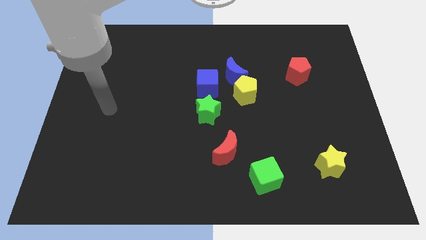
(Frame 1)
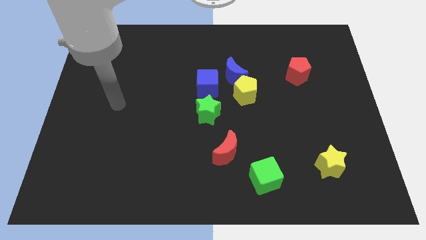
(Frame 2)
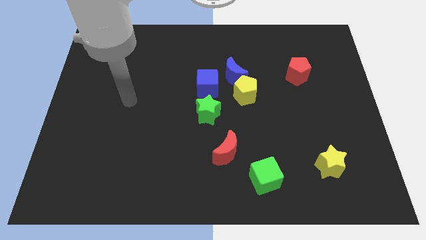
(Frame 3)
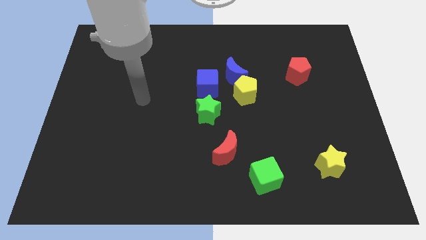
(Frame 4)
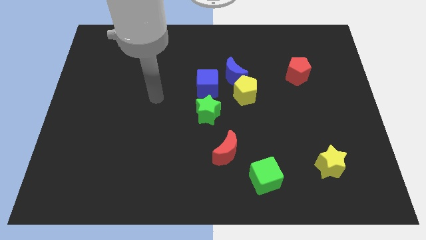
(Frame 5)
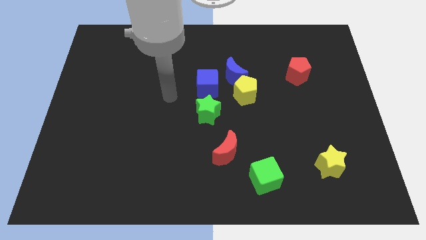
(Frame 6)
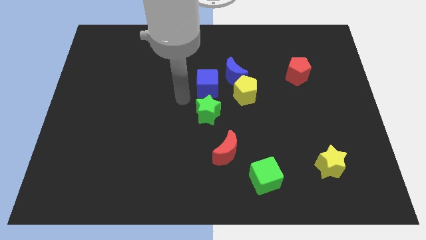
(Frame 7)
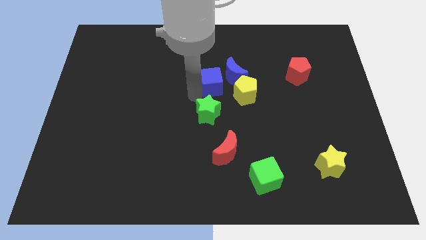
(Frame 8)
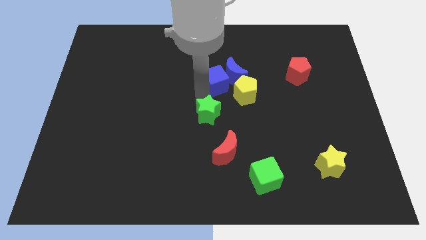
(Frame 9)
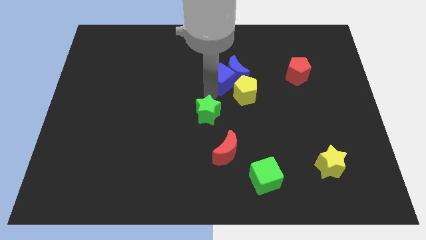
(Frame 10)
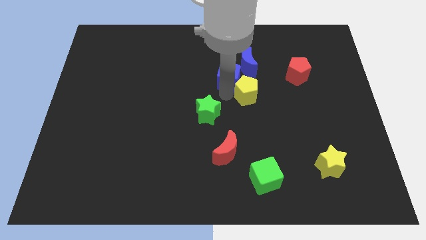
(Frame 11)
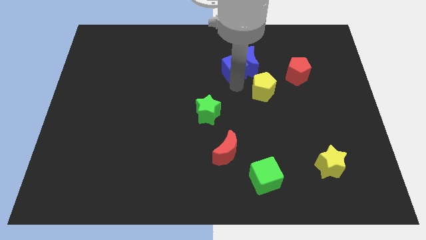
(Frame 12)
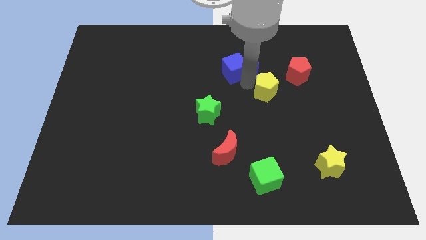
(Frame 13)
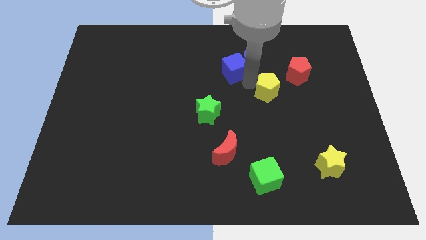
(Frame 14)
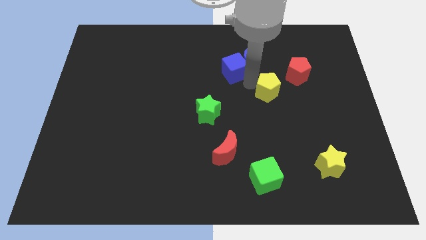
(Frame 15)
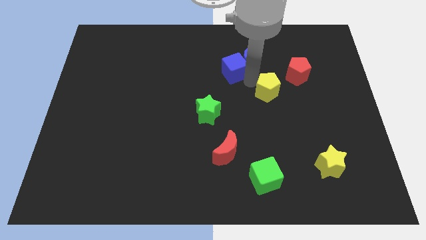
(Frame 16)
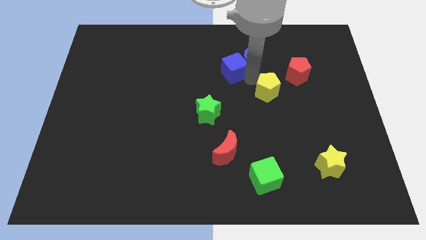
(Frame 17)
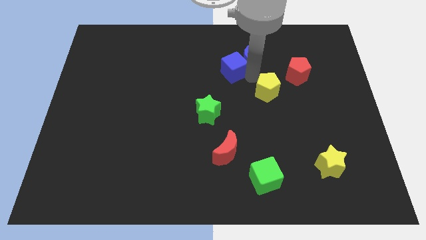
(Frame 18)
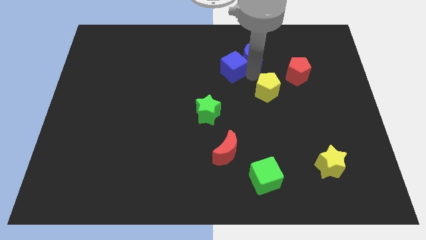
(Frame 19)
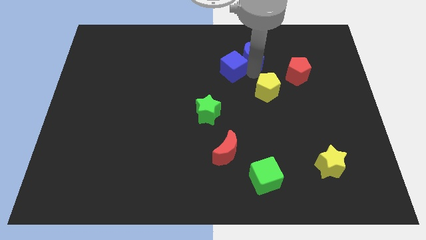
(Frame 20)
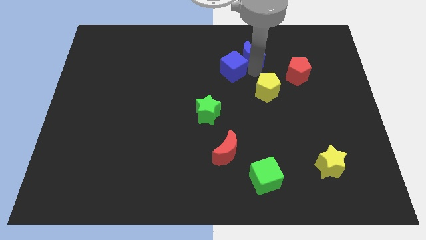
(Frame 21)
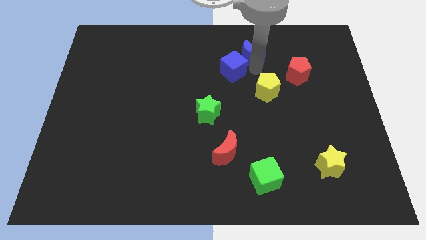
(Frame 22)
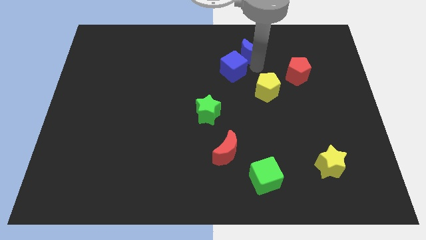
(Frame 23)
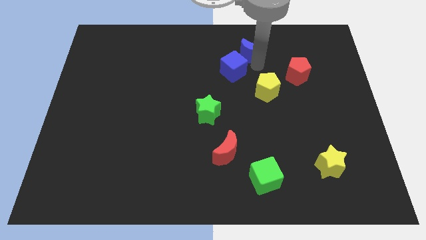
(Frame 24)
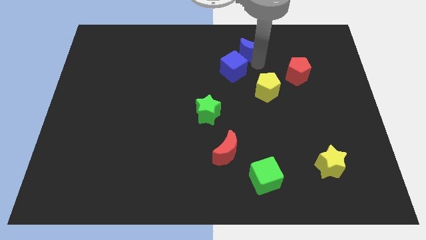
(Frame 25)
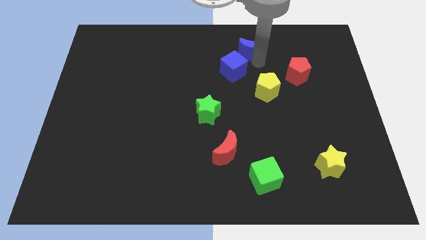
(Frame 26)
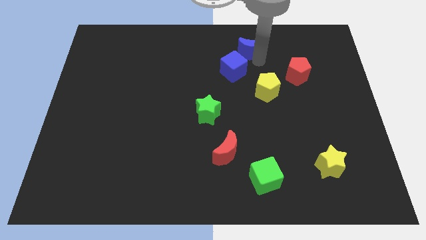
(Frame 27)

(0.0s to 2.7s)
pull the blue moon apart from the yellow pentagon and blue cube

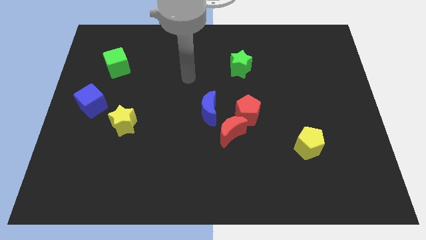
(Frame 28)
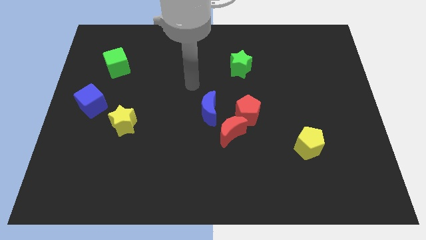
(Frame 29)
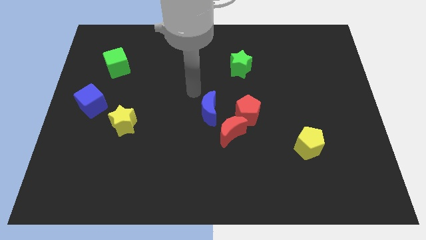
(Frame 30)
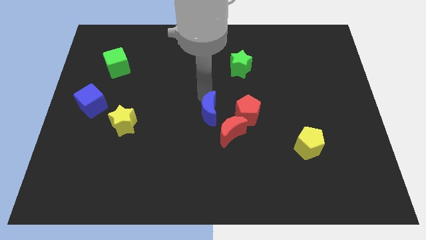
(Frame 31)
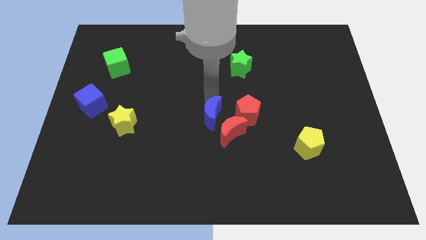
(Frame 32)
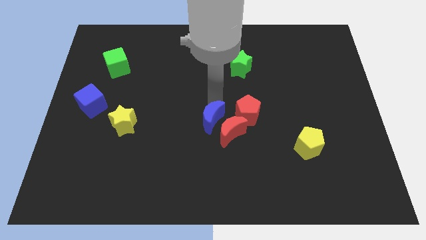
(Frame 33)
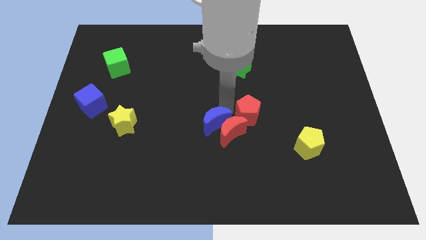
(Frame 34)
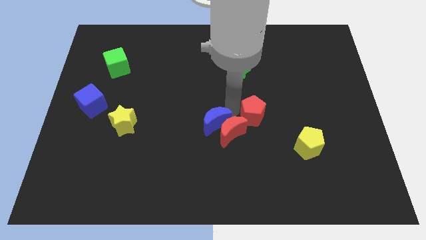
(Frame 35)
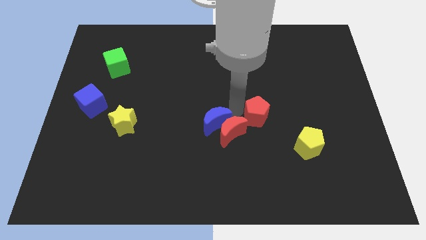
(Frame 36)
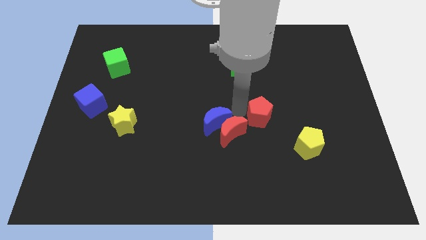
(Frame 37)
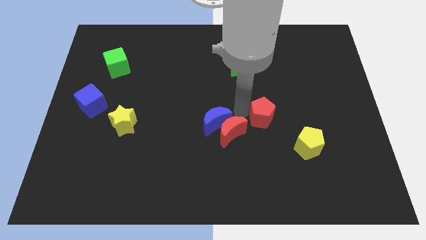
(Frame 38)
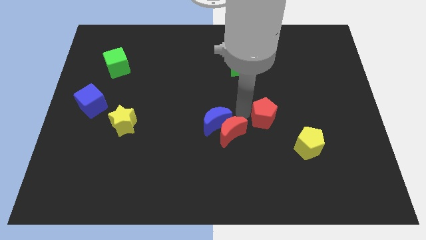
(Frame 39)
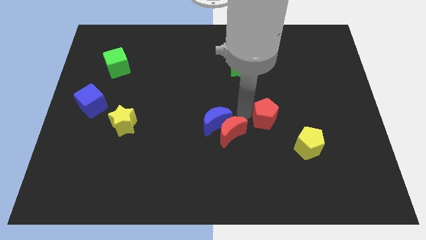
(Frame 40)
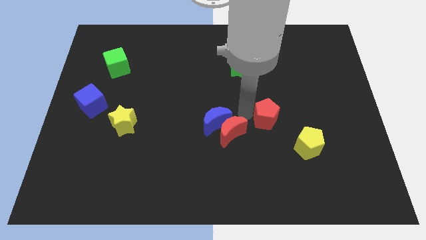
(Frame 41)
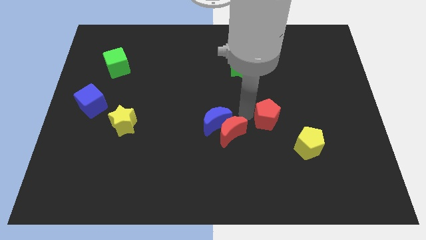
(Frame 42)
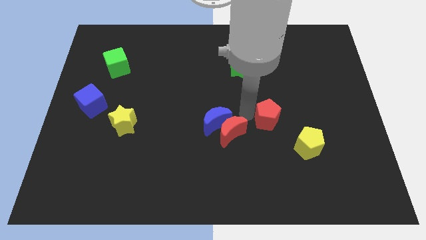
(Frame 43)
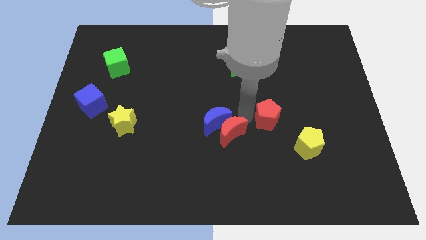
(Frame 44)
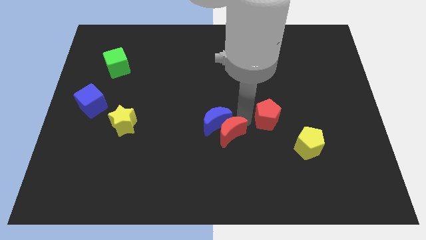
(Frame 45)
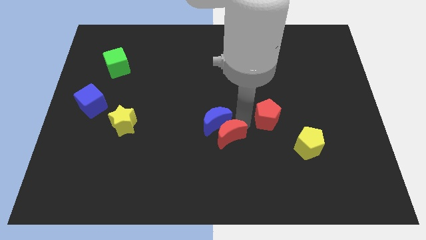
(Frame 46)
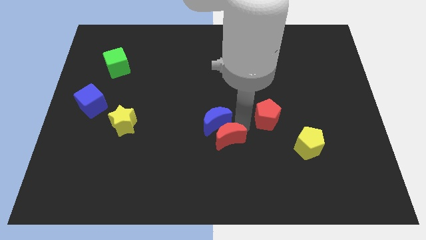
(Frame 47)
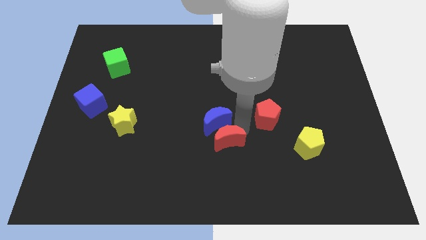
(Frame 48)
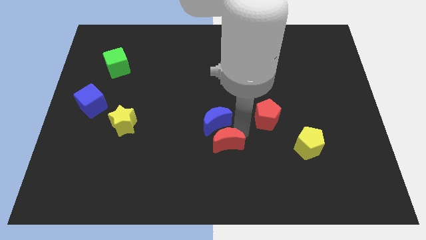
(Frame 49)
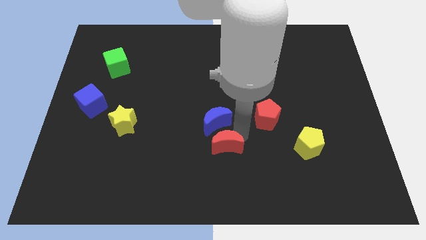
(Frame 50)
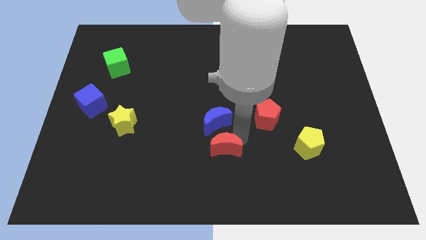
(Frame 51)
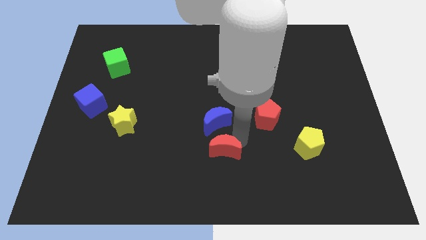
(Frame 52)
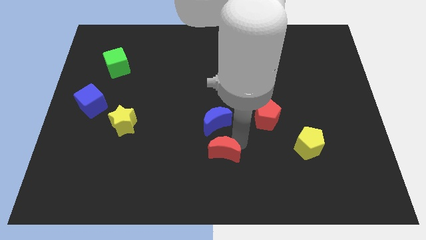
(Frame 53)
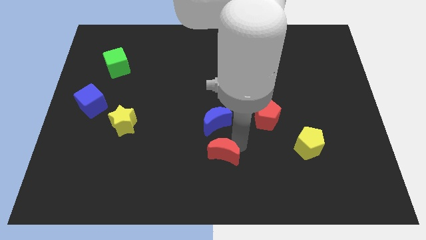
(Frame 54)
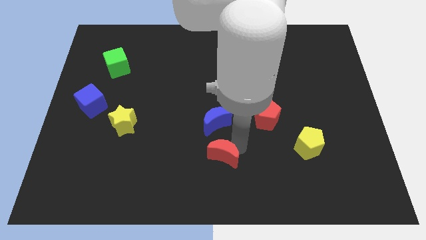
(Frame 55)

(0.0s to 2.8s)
pull the red moon apart from the red pentagon and blue moon

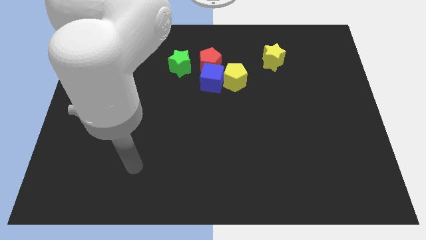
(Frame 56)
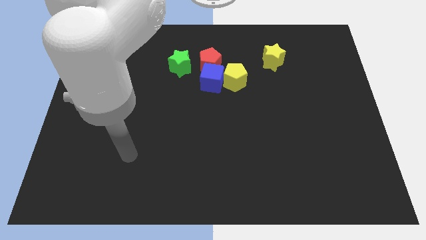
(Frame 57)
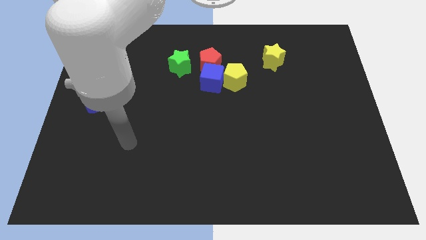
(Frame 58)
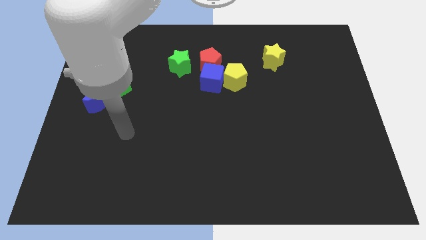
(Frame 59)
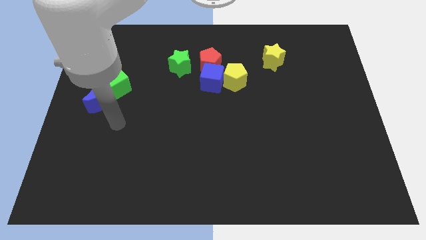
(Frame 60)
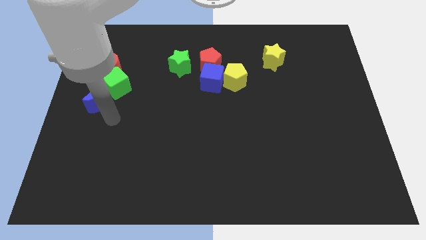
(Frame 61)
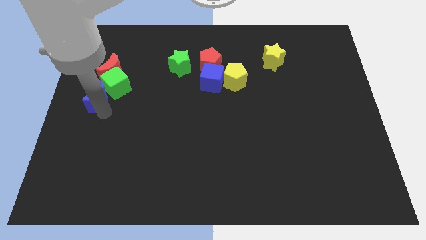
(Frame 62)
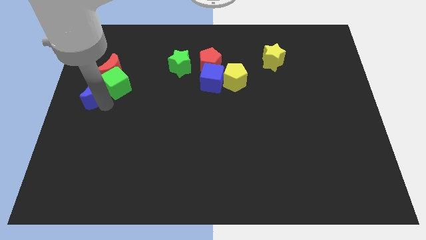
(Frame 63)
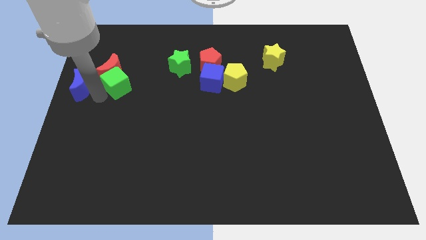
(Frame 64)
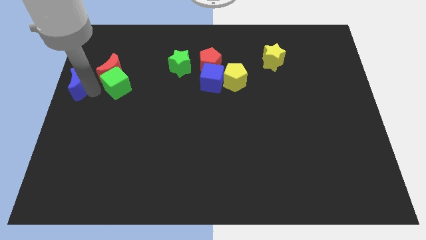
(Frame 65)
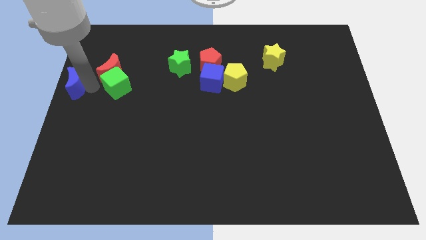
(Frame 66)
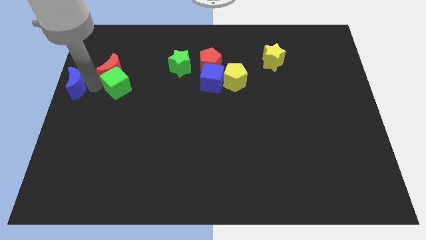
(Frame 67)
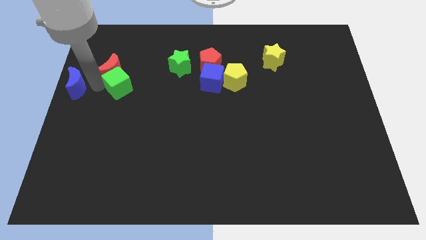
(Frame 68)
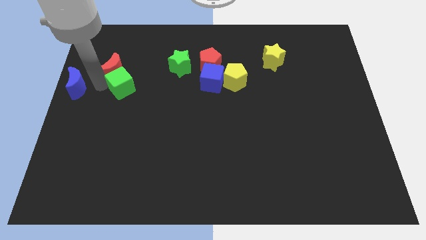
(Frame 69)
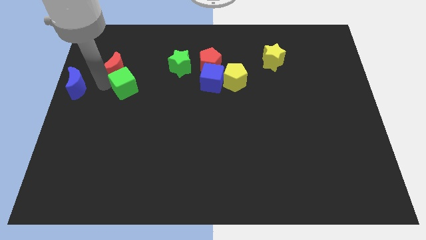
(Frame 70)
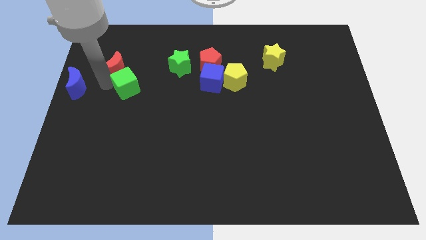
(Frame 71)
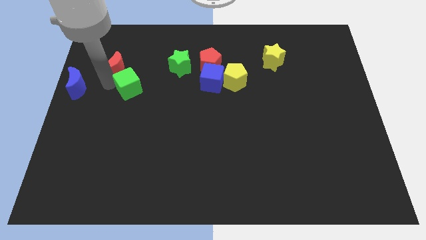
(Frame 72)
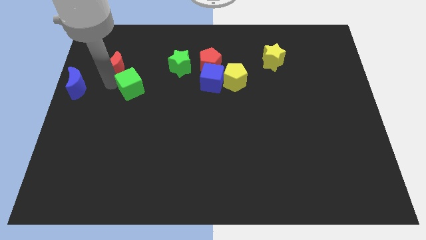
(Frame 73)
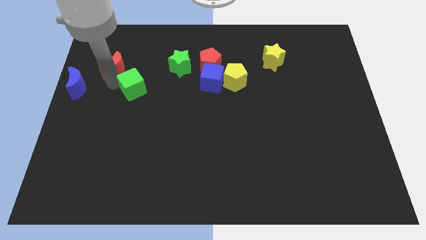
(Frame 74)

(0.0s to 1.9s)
move the green cube away from the red moon and blue moon

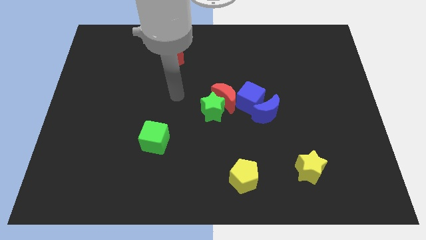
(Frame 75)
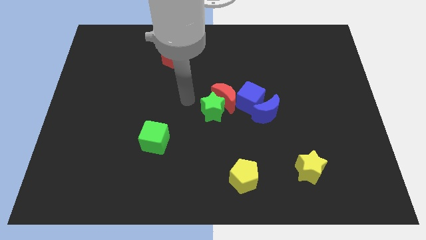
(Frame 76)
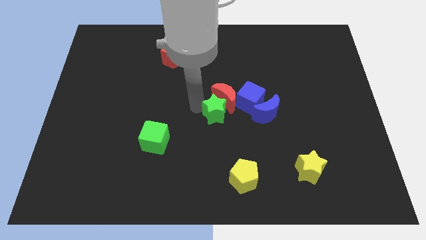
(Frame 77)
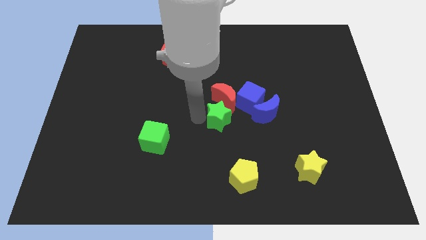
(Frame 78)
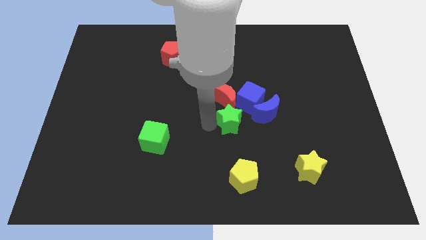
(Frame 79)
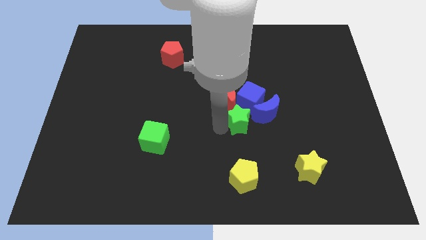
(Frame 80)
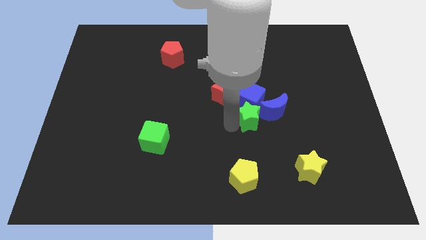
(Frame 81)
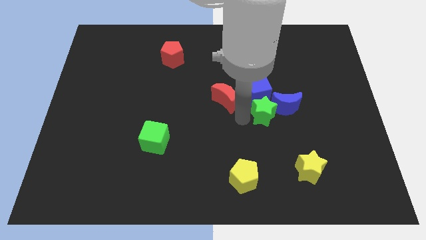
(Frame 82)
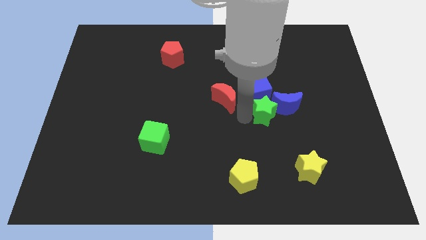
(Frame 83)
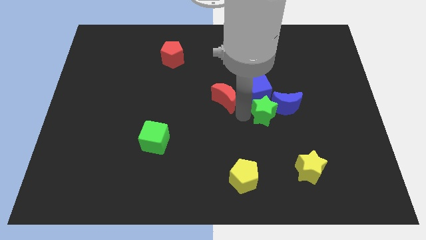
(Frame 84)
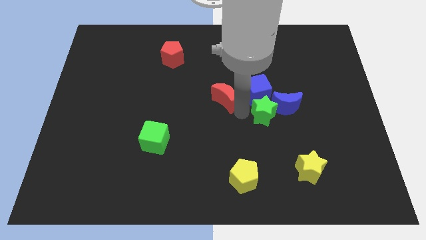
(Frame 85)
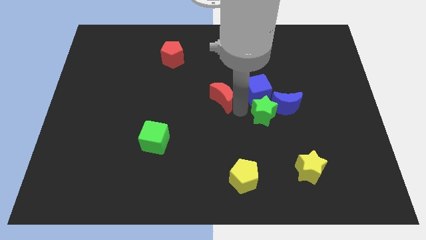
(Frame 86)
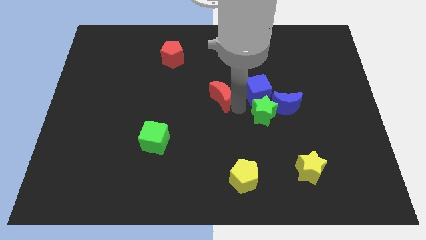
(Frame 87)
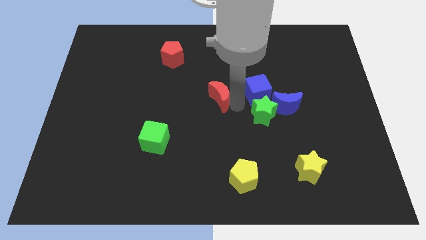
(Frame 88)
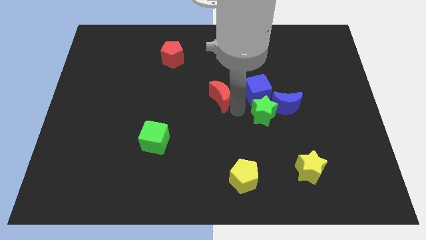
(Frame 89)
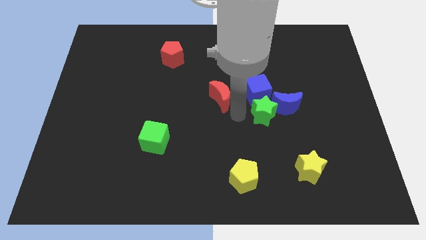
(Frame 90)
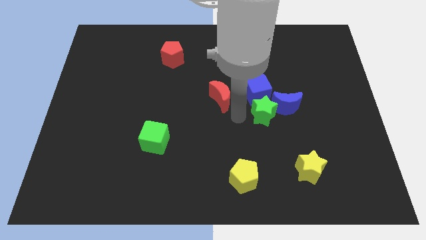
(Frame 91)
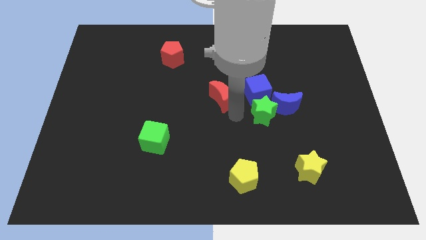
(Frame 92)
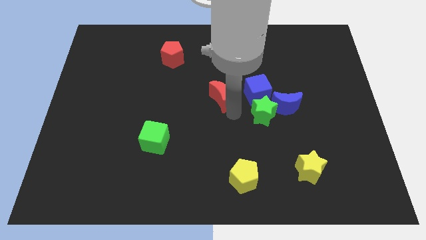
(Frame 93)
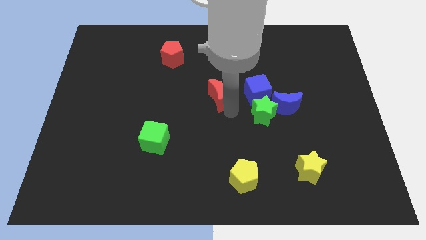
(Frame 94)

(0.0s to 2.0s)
separate the red moon from the green star and blue cube
